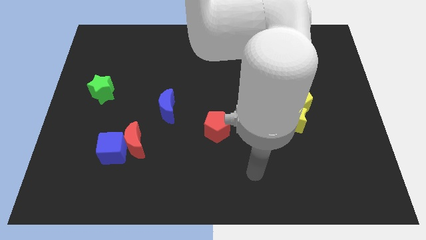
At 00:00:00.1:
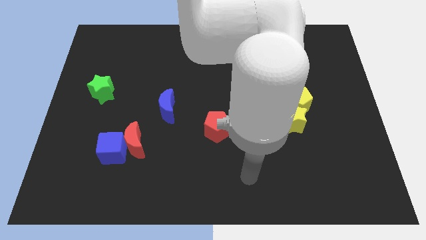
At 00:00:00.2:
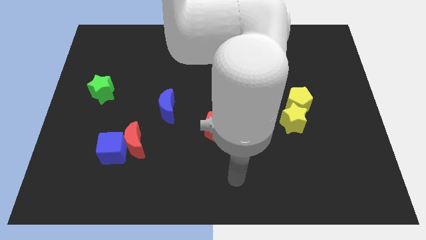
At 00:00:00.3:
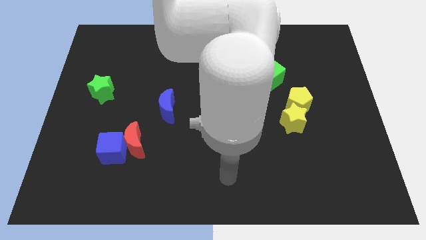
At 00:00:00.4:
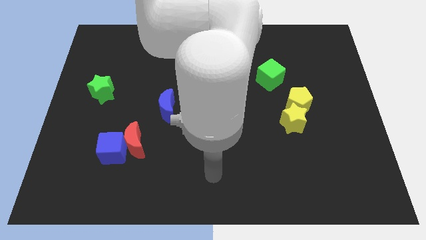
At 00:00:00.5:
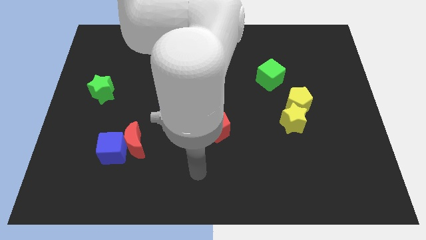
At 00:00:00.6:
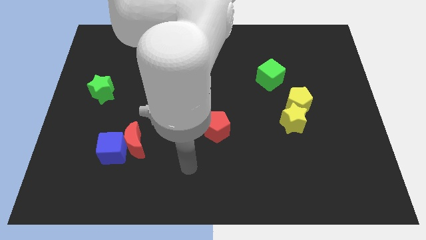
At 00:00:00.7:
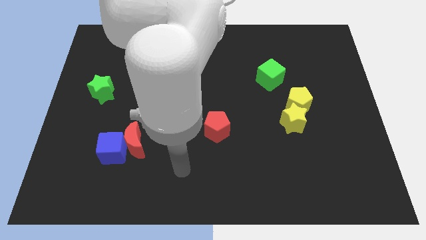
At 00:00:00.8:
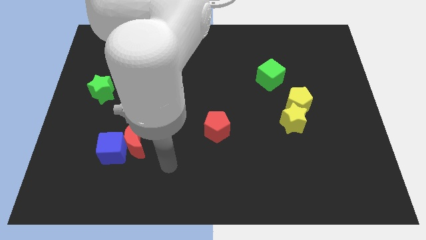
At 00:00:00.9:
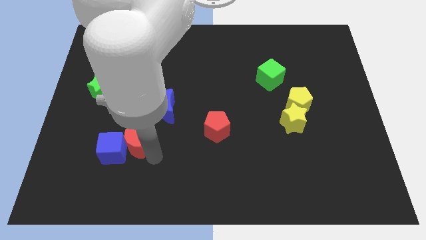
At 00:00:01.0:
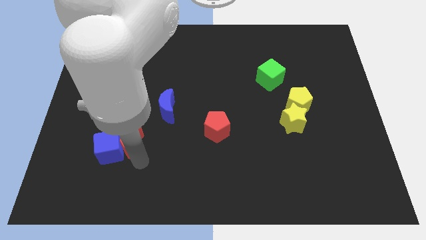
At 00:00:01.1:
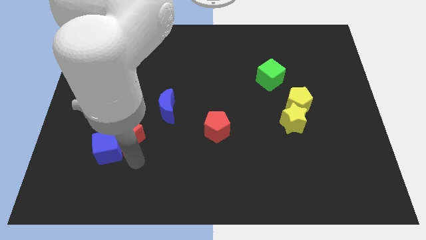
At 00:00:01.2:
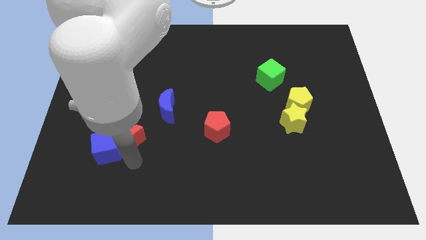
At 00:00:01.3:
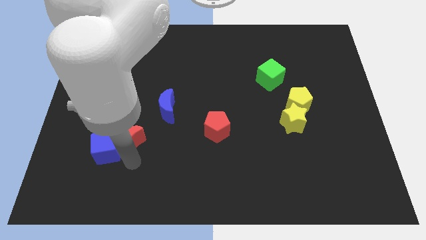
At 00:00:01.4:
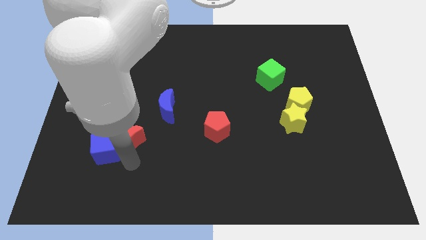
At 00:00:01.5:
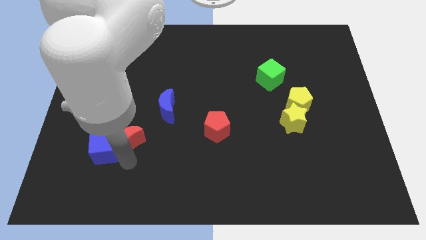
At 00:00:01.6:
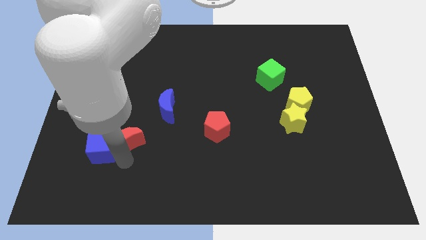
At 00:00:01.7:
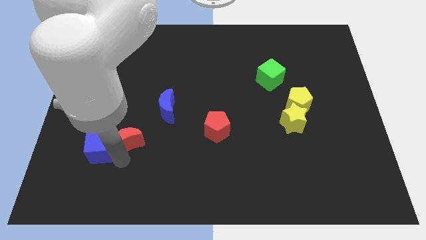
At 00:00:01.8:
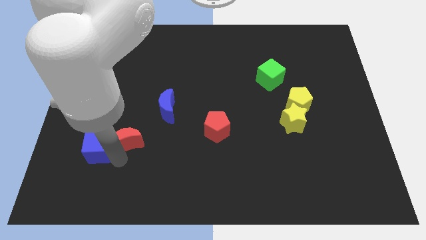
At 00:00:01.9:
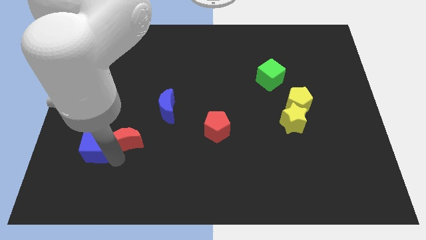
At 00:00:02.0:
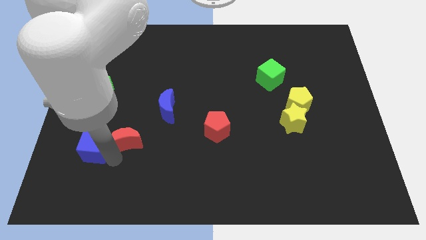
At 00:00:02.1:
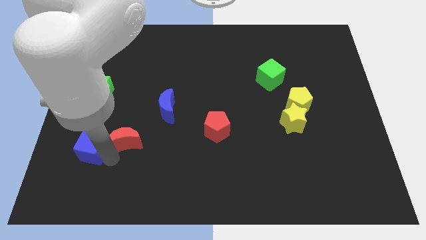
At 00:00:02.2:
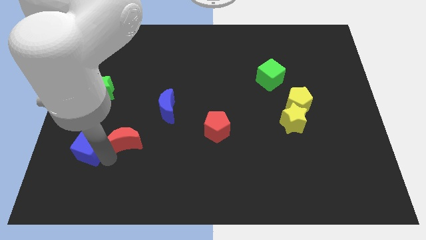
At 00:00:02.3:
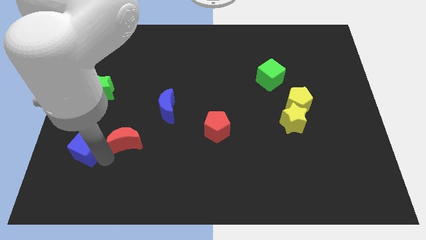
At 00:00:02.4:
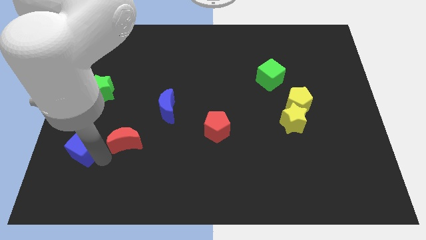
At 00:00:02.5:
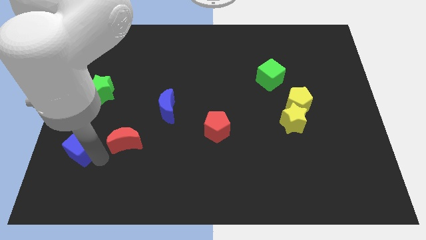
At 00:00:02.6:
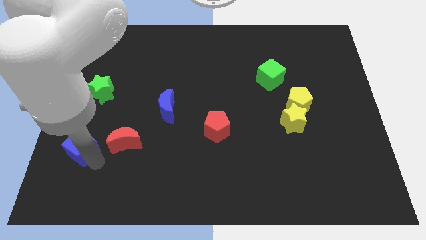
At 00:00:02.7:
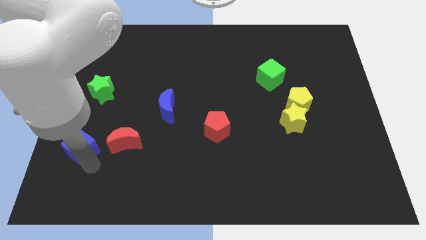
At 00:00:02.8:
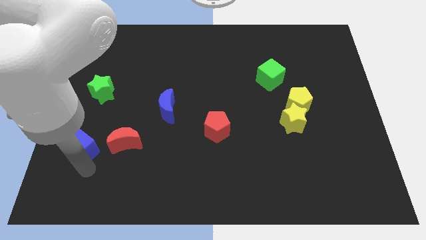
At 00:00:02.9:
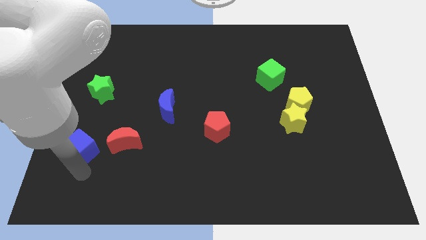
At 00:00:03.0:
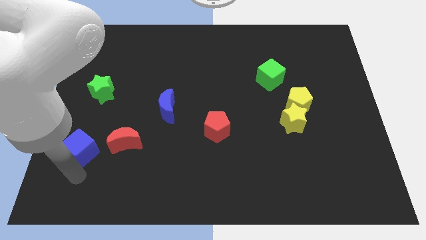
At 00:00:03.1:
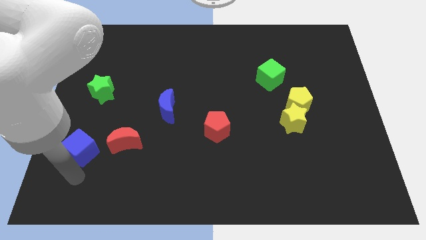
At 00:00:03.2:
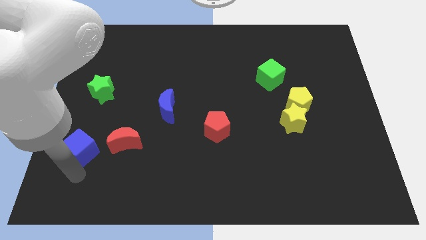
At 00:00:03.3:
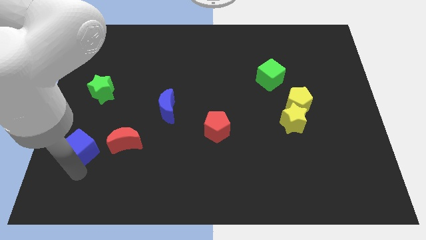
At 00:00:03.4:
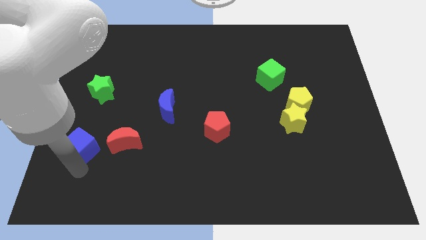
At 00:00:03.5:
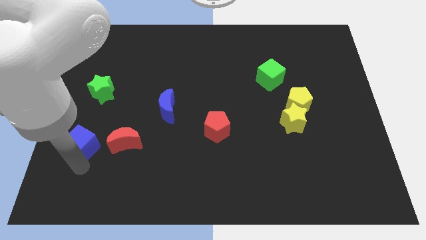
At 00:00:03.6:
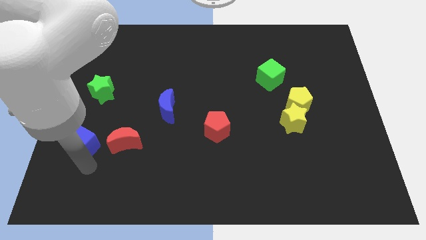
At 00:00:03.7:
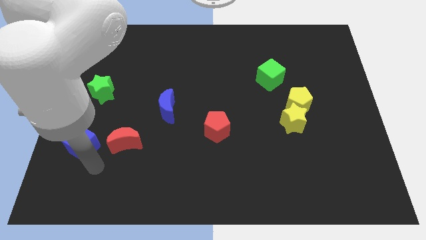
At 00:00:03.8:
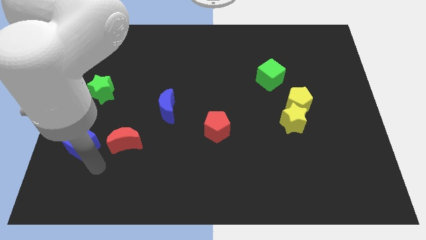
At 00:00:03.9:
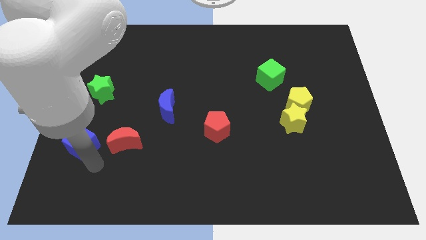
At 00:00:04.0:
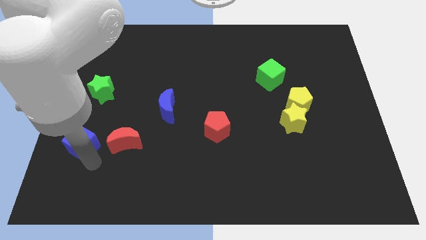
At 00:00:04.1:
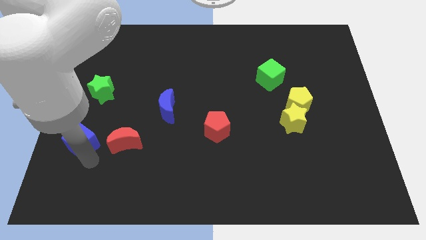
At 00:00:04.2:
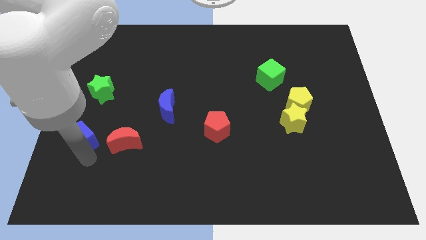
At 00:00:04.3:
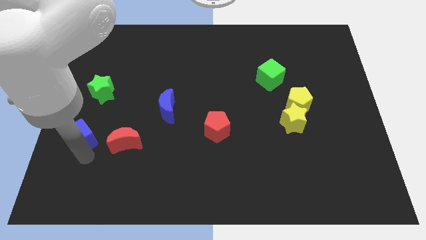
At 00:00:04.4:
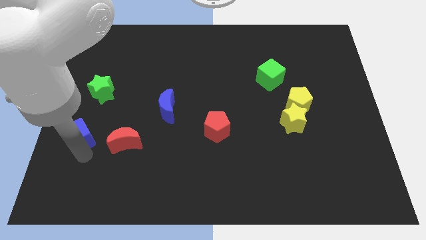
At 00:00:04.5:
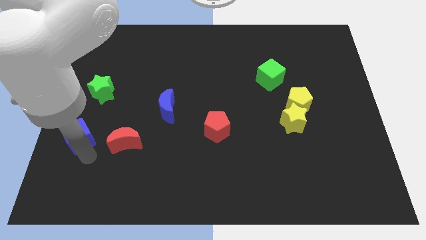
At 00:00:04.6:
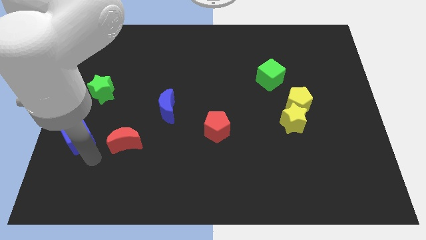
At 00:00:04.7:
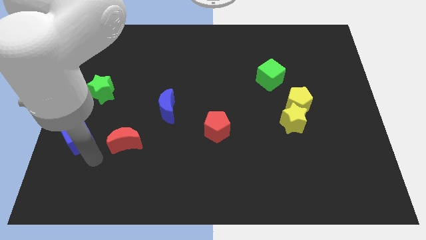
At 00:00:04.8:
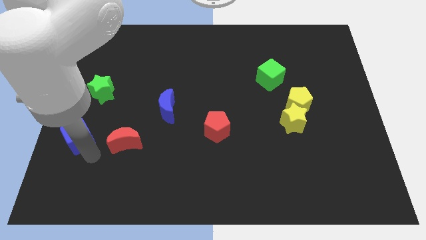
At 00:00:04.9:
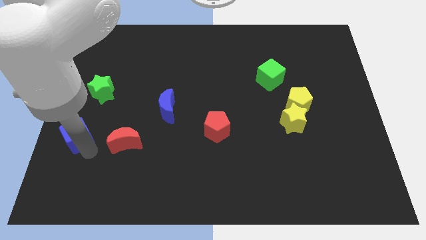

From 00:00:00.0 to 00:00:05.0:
push the blue cube to the left side

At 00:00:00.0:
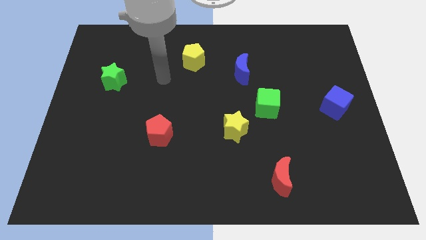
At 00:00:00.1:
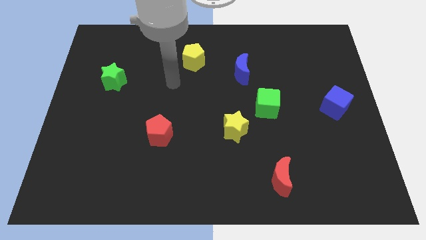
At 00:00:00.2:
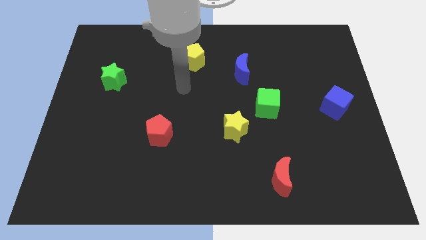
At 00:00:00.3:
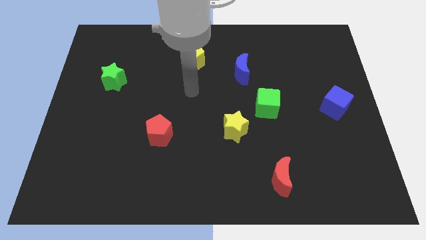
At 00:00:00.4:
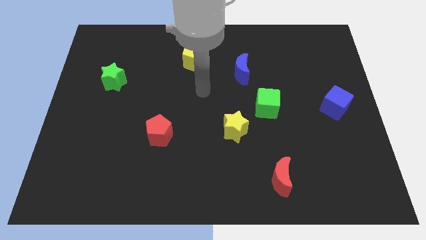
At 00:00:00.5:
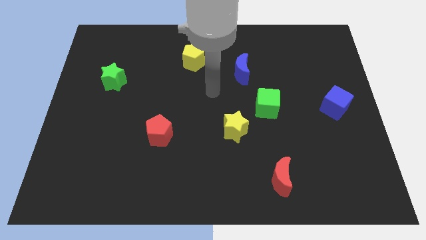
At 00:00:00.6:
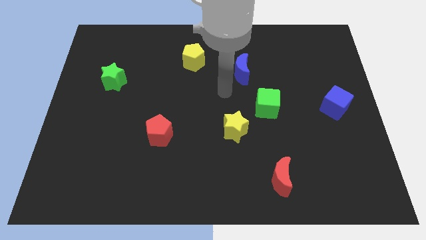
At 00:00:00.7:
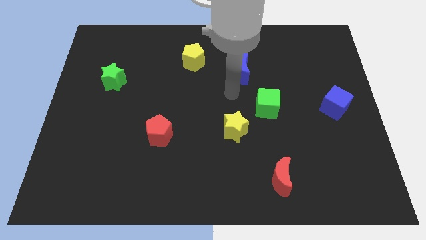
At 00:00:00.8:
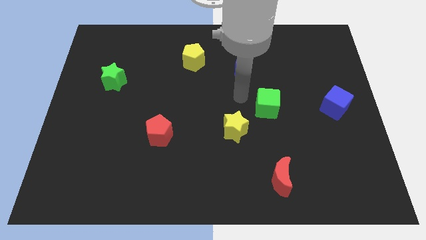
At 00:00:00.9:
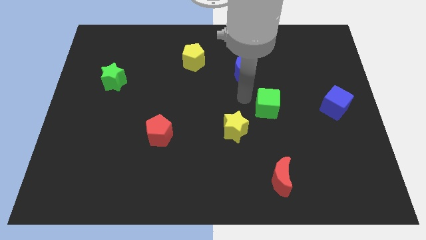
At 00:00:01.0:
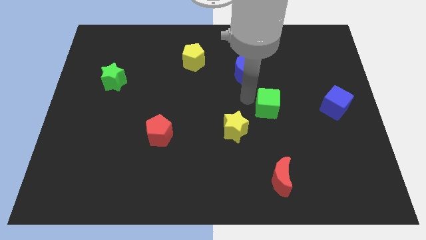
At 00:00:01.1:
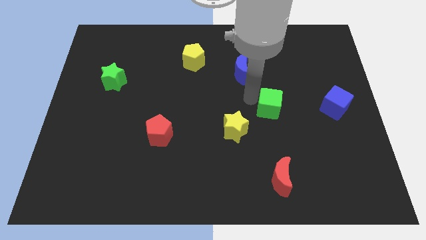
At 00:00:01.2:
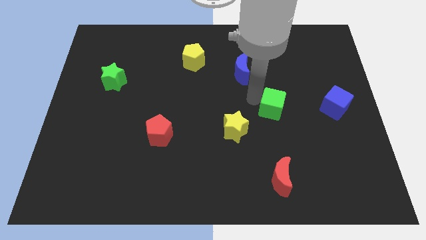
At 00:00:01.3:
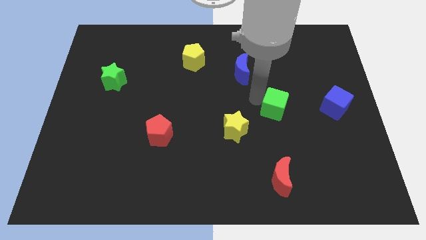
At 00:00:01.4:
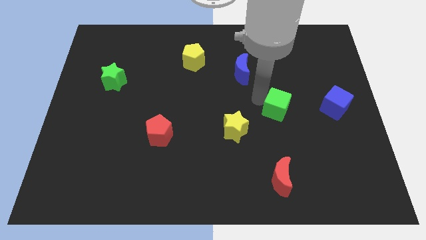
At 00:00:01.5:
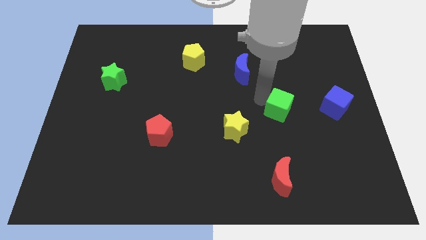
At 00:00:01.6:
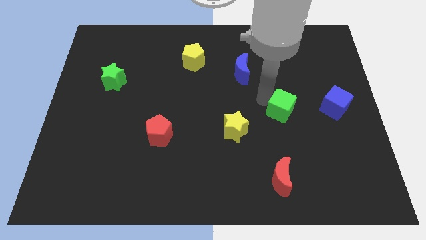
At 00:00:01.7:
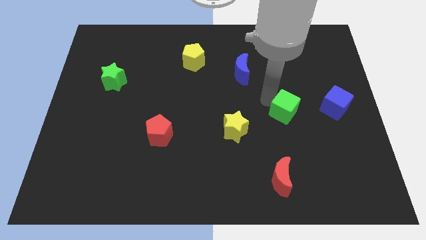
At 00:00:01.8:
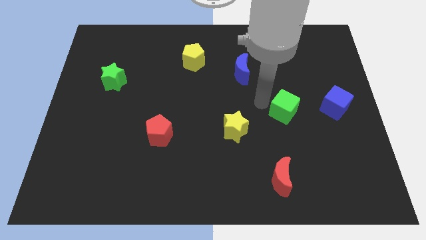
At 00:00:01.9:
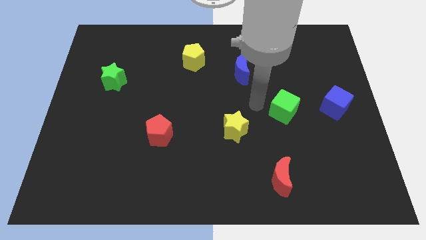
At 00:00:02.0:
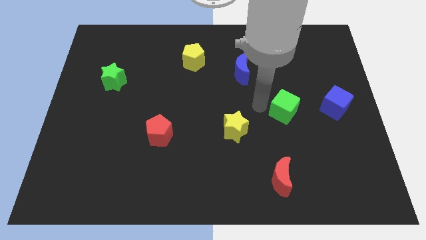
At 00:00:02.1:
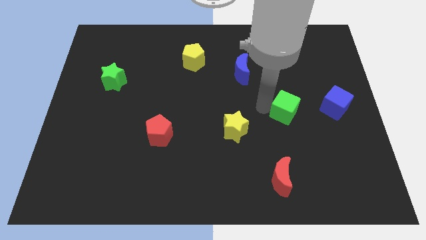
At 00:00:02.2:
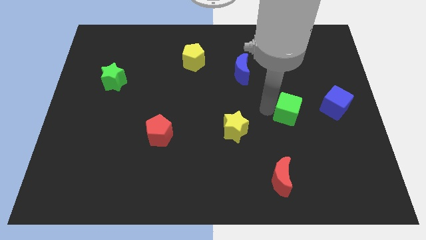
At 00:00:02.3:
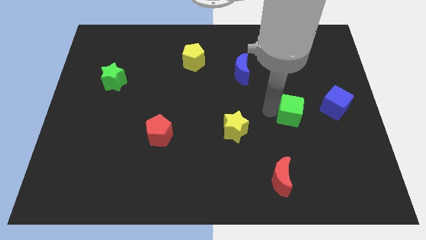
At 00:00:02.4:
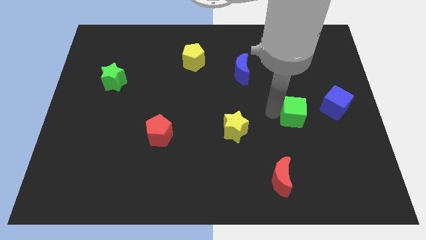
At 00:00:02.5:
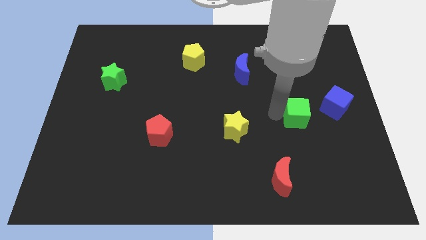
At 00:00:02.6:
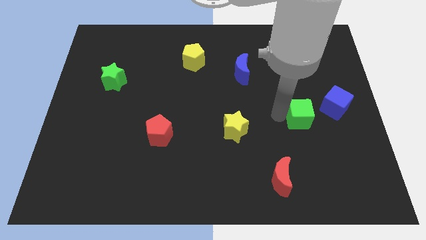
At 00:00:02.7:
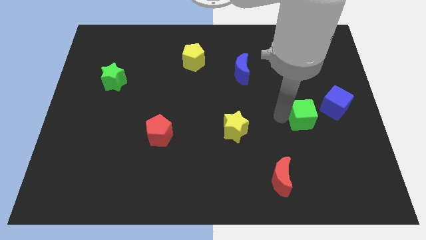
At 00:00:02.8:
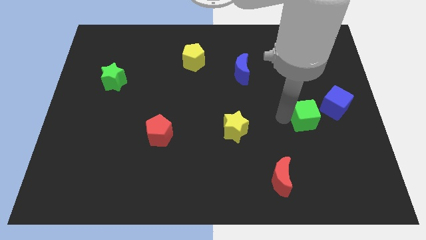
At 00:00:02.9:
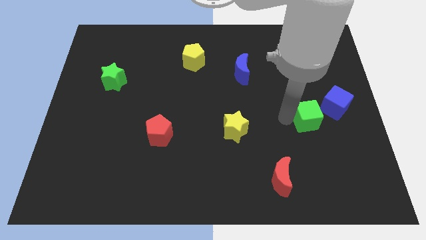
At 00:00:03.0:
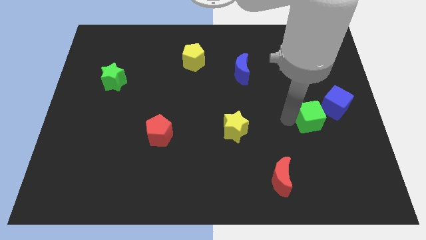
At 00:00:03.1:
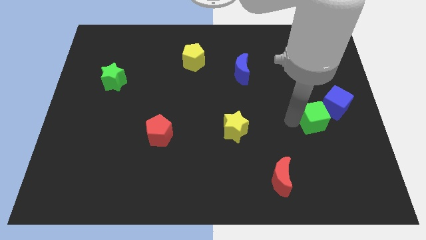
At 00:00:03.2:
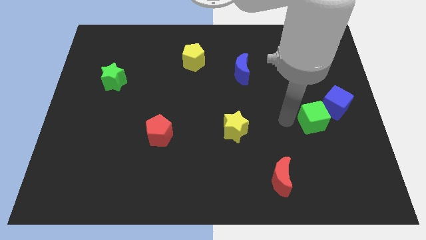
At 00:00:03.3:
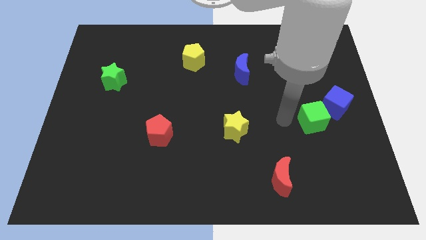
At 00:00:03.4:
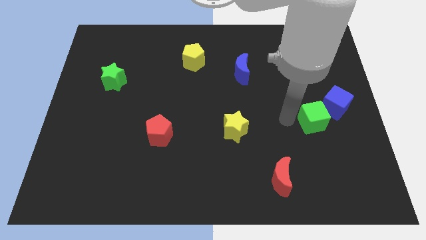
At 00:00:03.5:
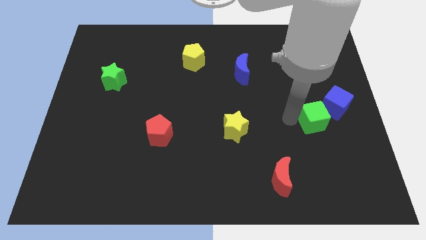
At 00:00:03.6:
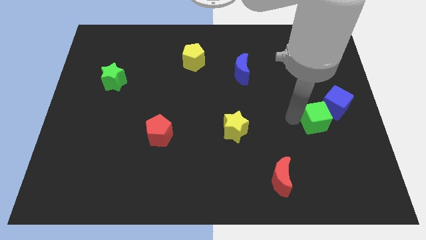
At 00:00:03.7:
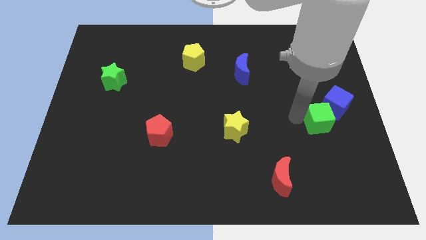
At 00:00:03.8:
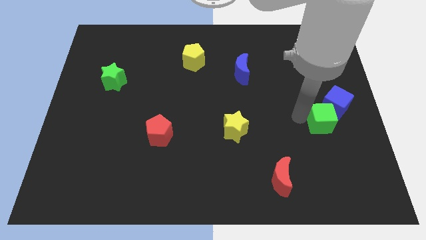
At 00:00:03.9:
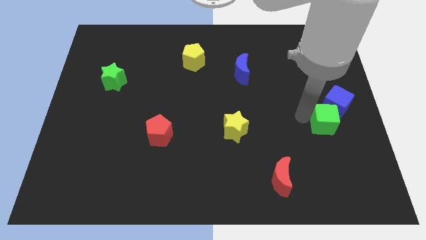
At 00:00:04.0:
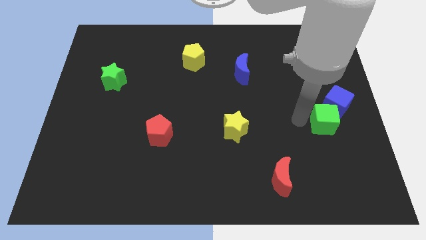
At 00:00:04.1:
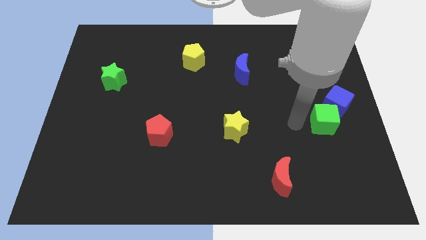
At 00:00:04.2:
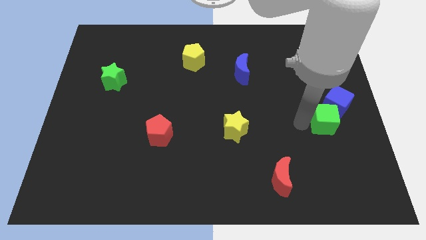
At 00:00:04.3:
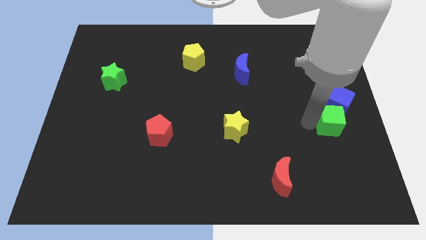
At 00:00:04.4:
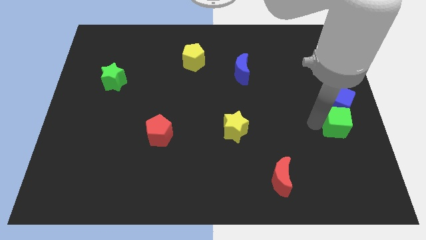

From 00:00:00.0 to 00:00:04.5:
push the green cube to the center right
